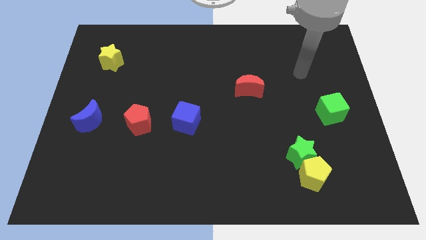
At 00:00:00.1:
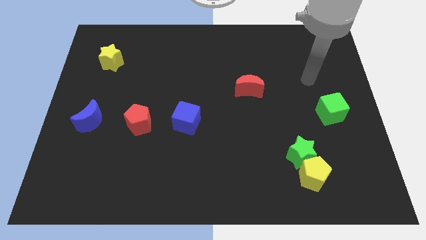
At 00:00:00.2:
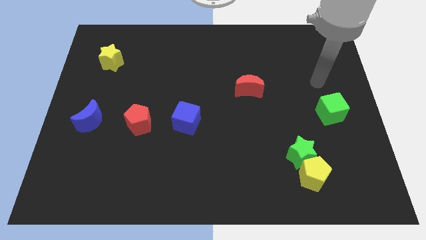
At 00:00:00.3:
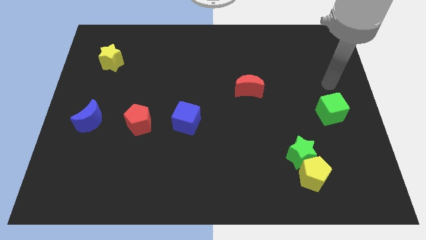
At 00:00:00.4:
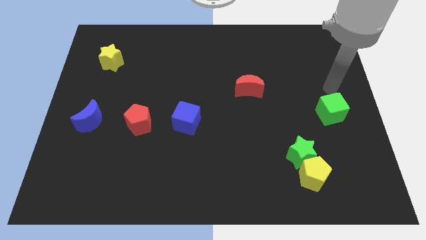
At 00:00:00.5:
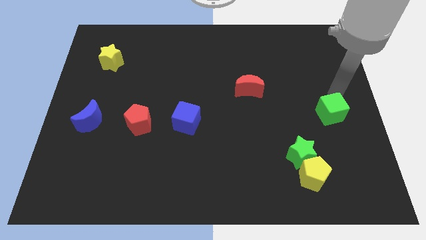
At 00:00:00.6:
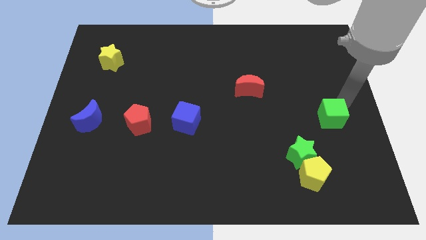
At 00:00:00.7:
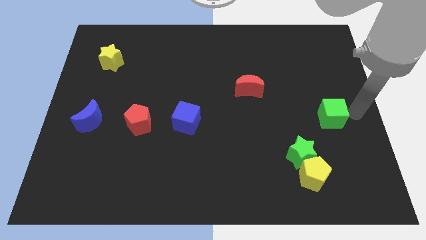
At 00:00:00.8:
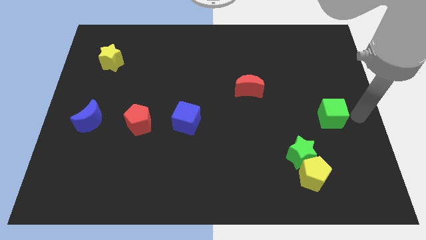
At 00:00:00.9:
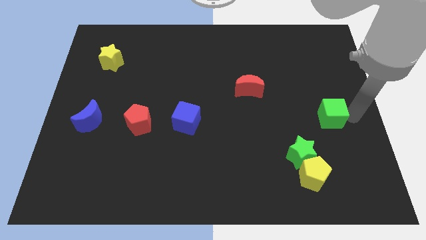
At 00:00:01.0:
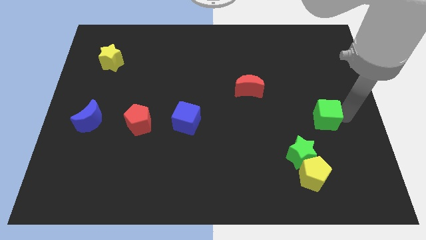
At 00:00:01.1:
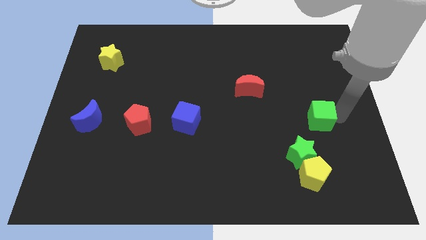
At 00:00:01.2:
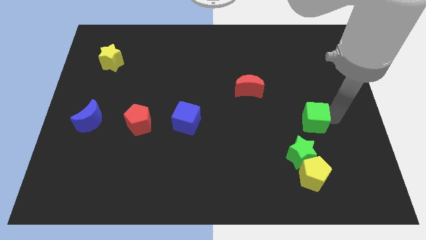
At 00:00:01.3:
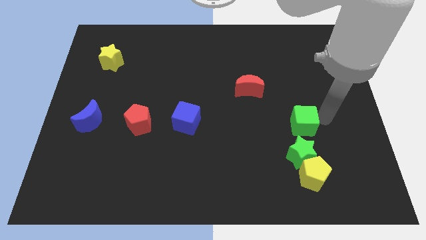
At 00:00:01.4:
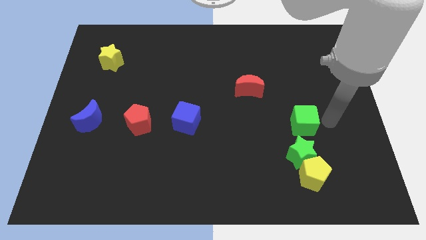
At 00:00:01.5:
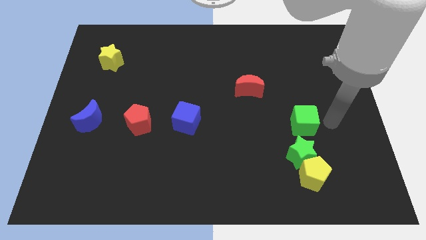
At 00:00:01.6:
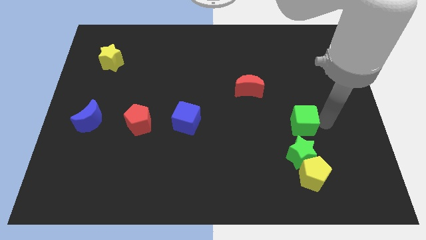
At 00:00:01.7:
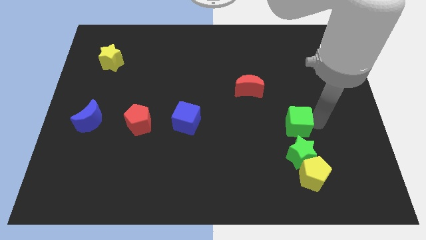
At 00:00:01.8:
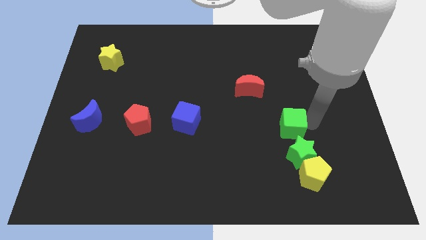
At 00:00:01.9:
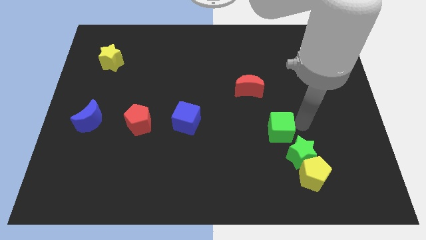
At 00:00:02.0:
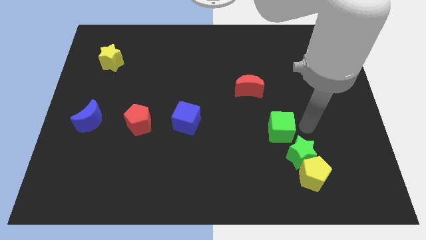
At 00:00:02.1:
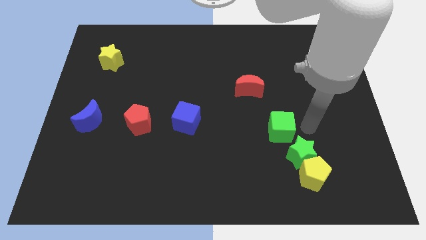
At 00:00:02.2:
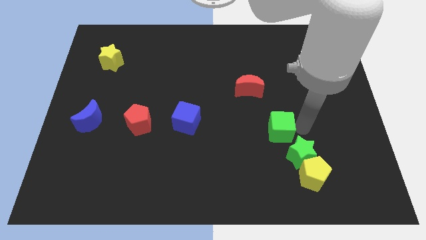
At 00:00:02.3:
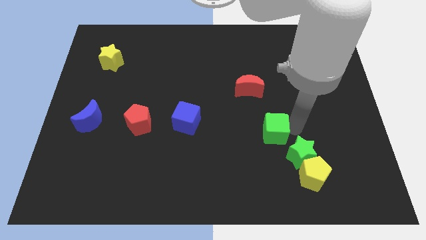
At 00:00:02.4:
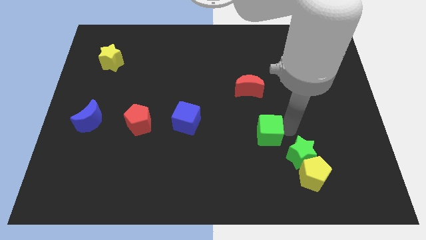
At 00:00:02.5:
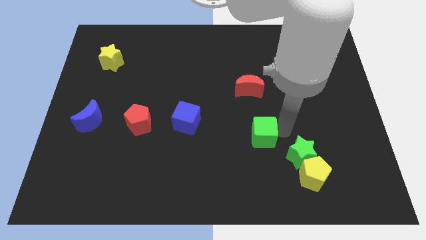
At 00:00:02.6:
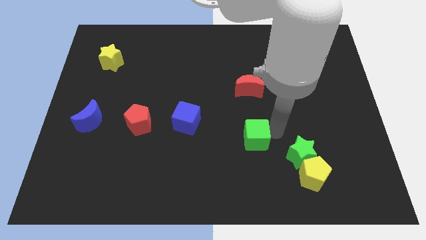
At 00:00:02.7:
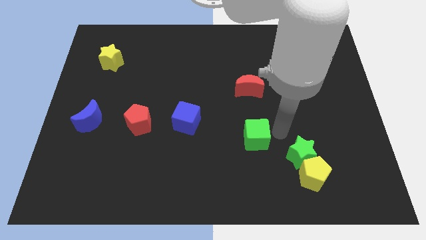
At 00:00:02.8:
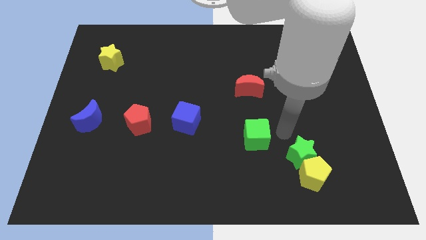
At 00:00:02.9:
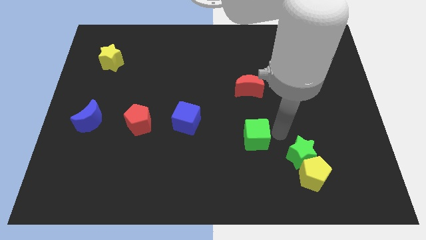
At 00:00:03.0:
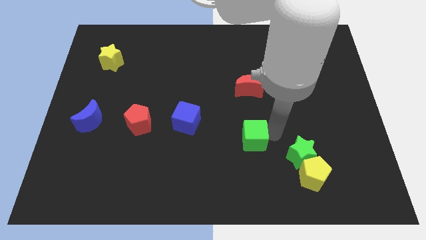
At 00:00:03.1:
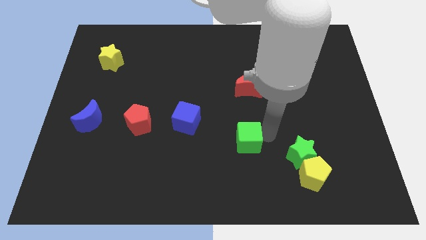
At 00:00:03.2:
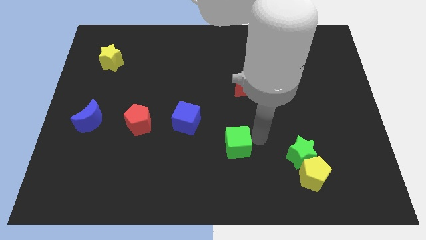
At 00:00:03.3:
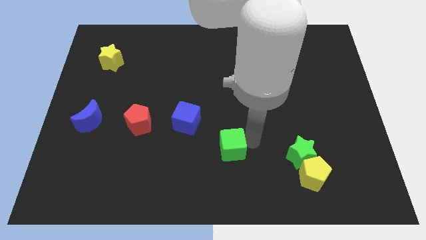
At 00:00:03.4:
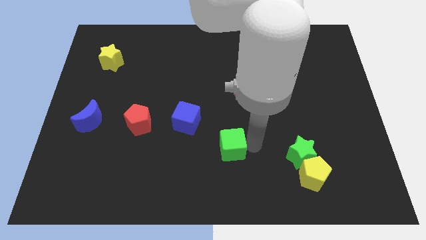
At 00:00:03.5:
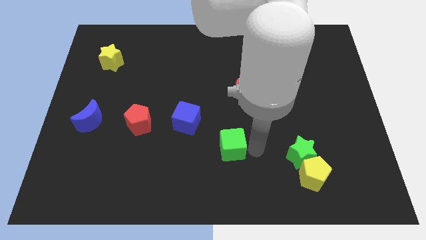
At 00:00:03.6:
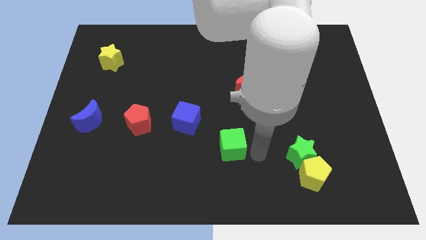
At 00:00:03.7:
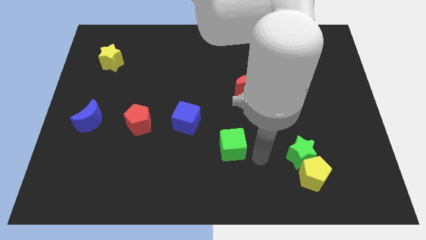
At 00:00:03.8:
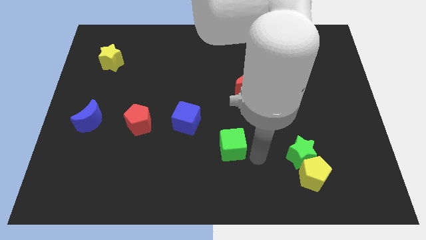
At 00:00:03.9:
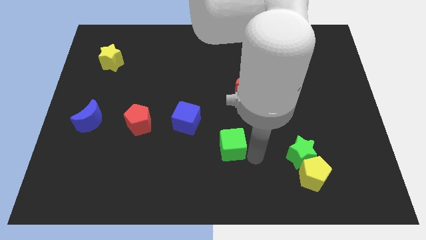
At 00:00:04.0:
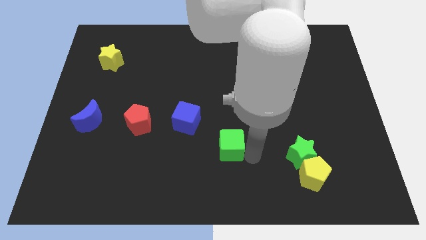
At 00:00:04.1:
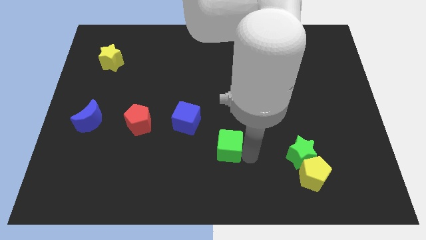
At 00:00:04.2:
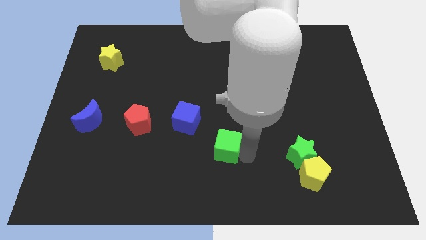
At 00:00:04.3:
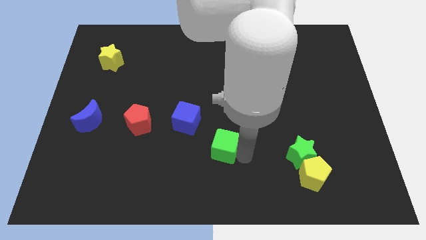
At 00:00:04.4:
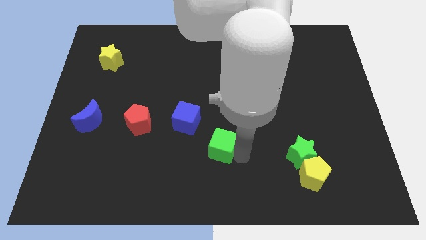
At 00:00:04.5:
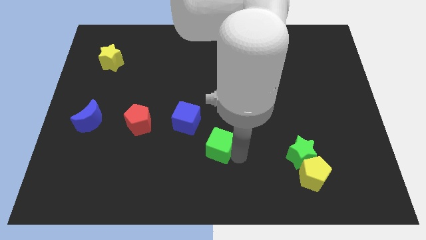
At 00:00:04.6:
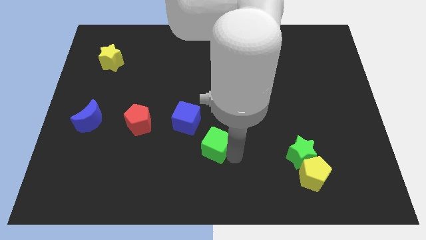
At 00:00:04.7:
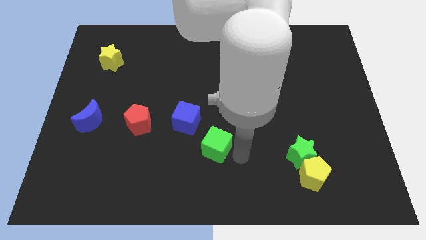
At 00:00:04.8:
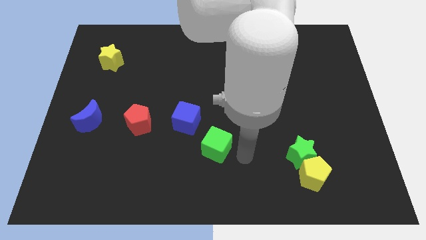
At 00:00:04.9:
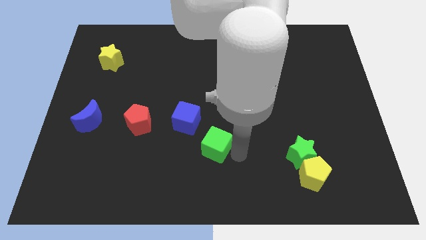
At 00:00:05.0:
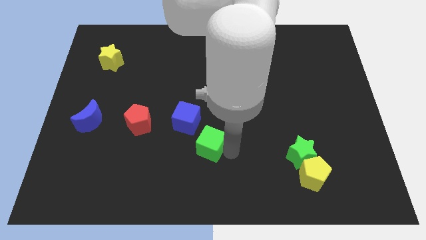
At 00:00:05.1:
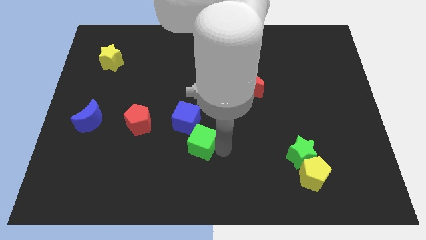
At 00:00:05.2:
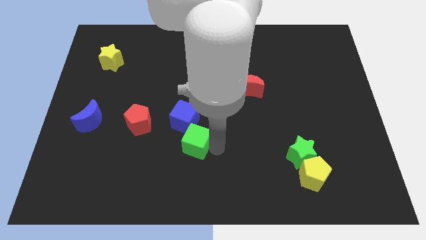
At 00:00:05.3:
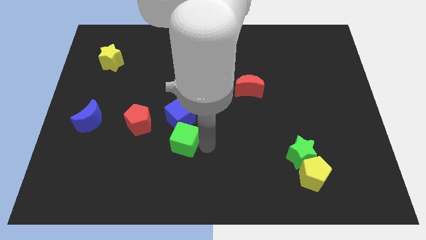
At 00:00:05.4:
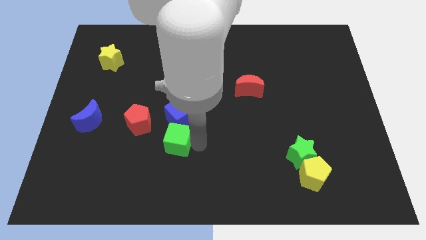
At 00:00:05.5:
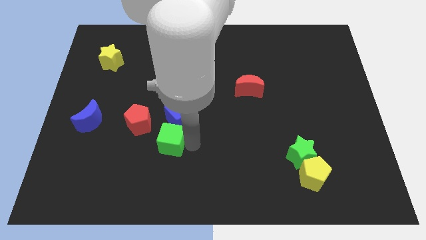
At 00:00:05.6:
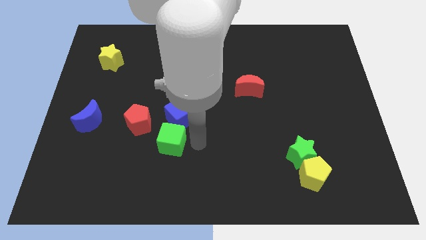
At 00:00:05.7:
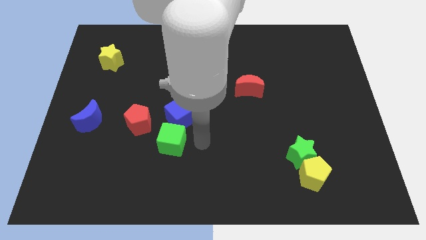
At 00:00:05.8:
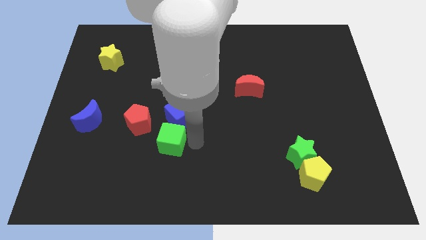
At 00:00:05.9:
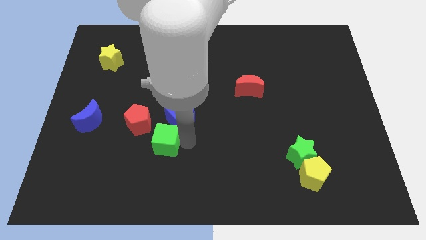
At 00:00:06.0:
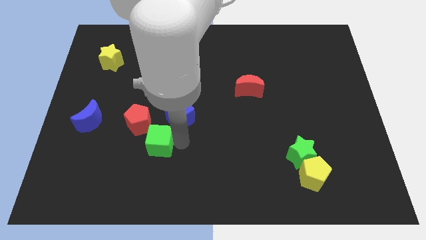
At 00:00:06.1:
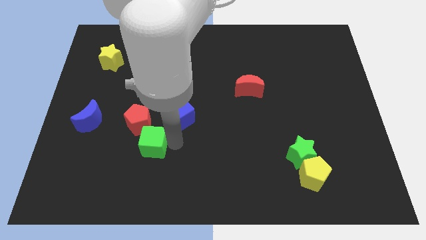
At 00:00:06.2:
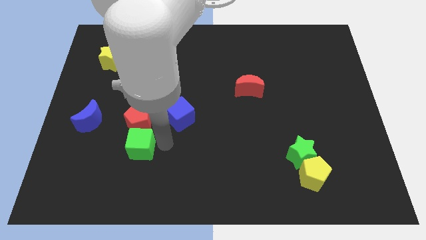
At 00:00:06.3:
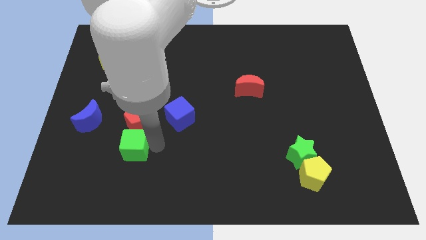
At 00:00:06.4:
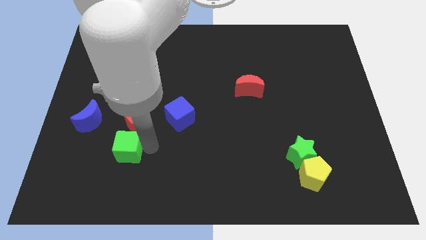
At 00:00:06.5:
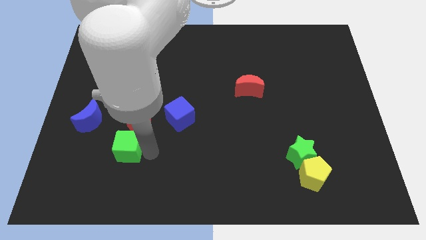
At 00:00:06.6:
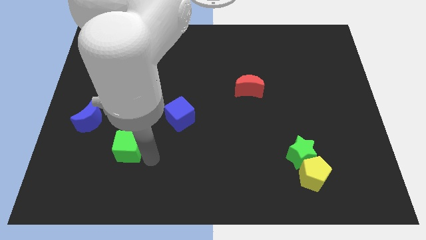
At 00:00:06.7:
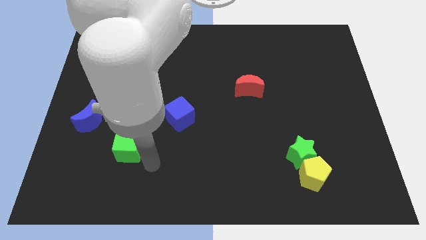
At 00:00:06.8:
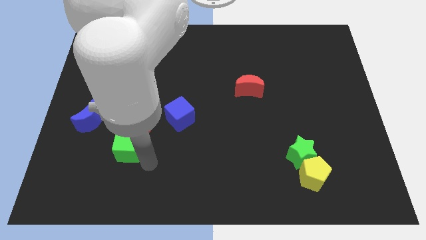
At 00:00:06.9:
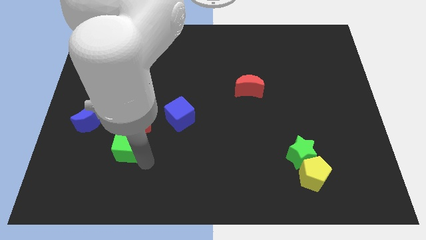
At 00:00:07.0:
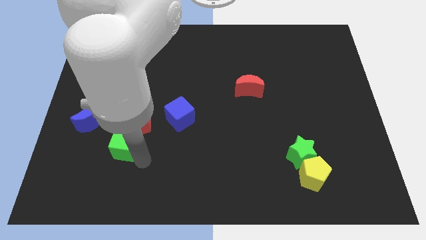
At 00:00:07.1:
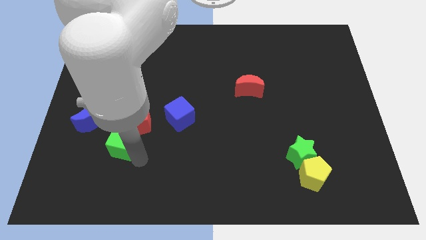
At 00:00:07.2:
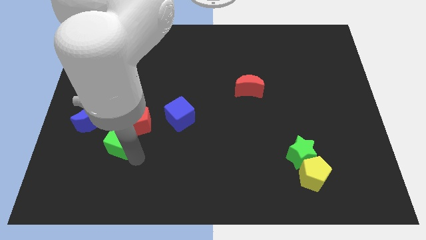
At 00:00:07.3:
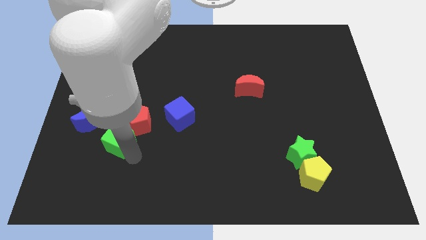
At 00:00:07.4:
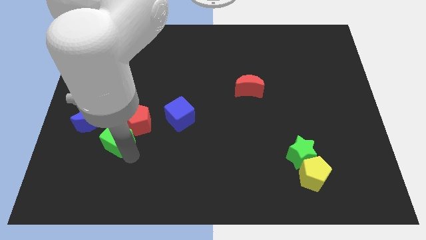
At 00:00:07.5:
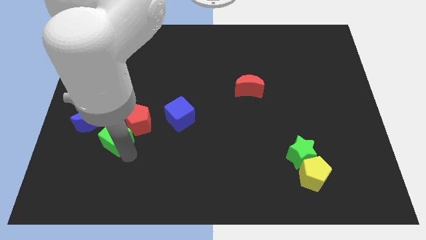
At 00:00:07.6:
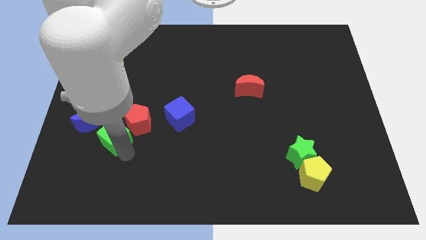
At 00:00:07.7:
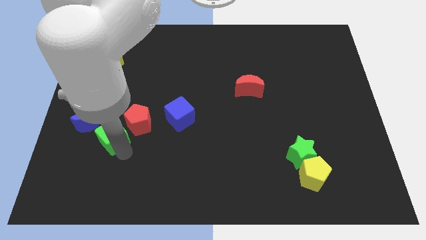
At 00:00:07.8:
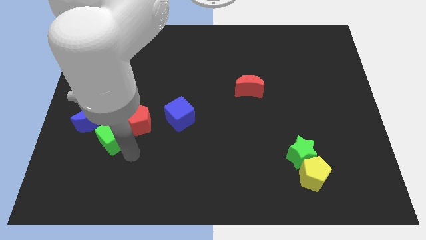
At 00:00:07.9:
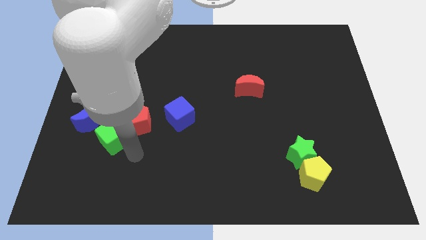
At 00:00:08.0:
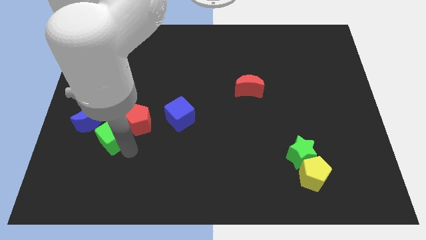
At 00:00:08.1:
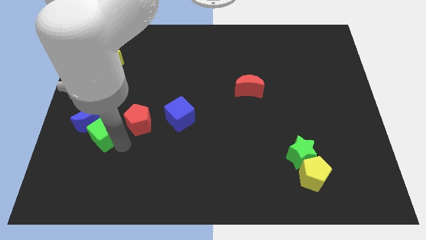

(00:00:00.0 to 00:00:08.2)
put the green cube close to the blue moon
